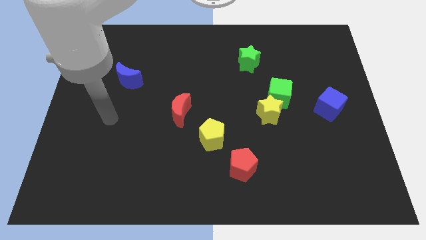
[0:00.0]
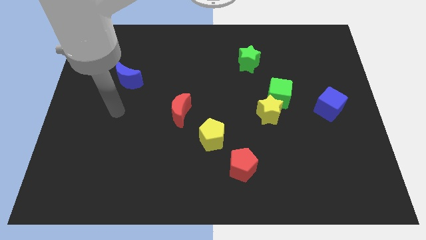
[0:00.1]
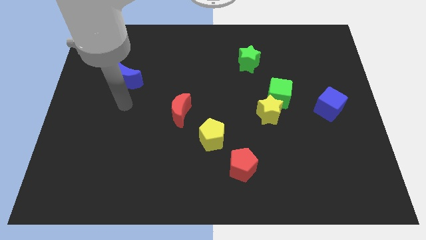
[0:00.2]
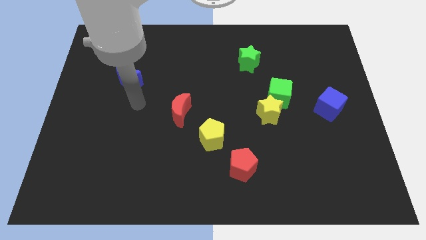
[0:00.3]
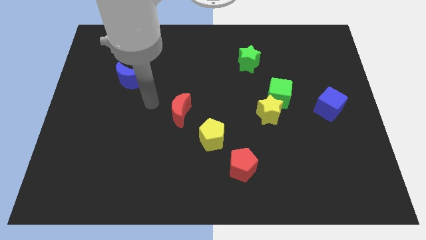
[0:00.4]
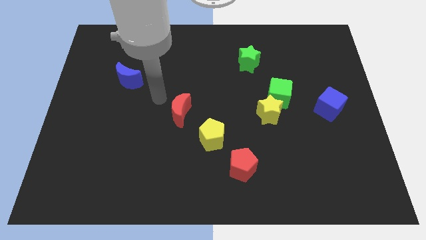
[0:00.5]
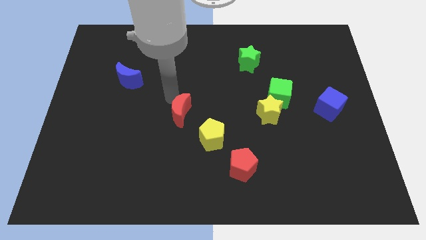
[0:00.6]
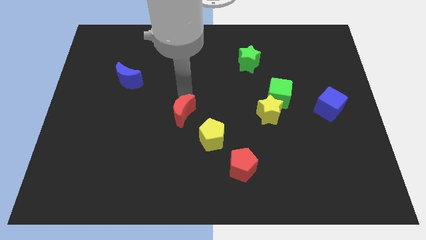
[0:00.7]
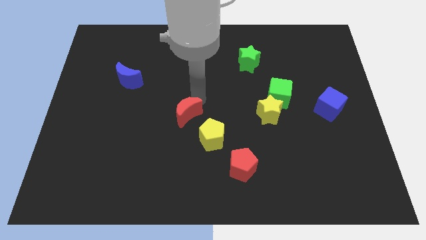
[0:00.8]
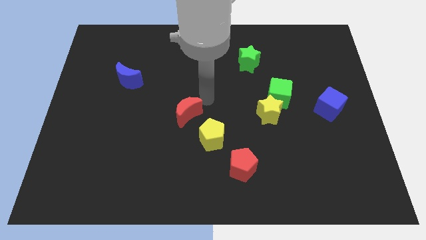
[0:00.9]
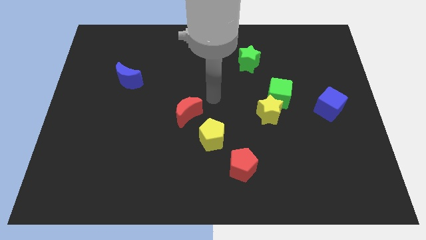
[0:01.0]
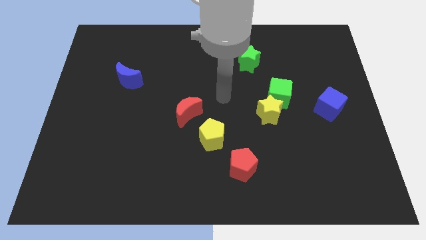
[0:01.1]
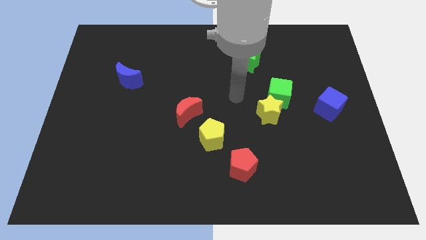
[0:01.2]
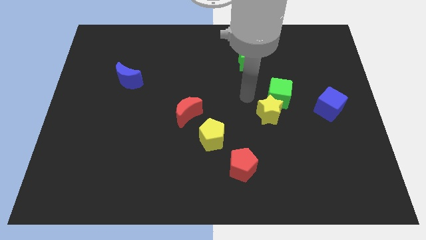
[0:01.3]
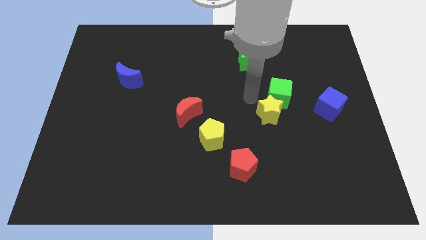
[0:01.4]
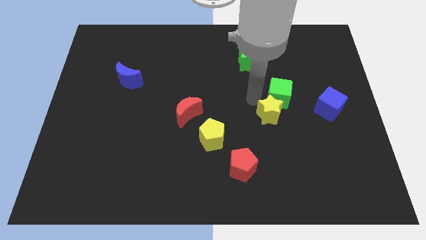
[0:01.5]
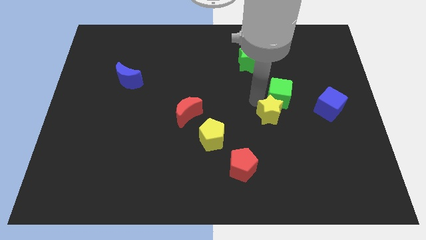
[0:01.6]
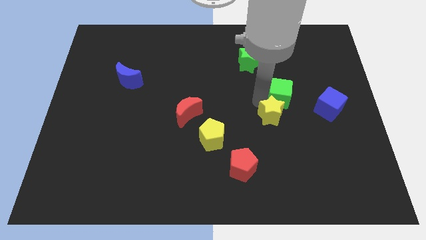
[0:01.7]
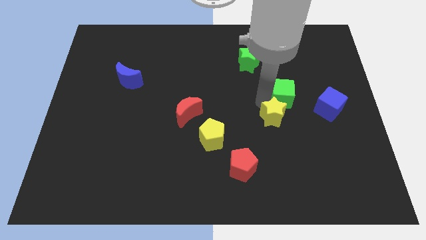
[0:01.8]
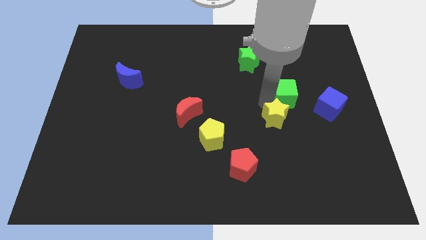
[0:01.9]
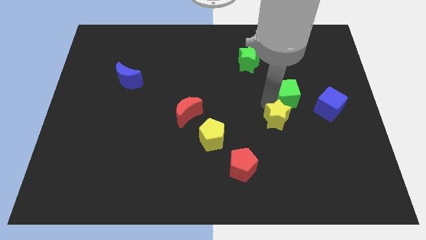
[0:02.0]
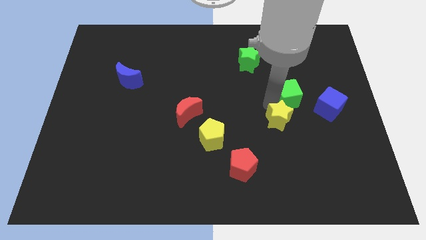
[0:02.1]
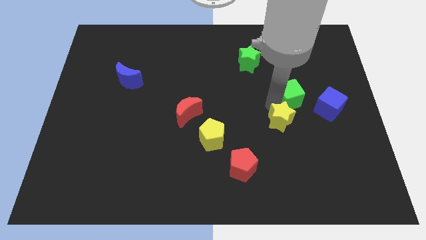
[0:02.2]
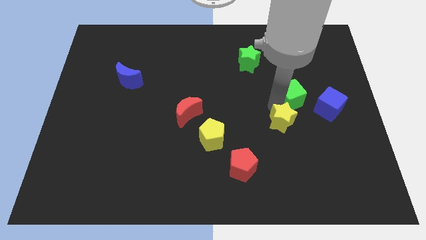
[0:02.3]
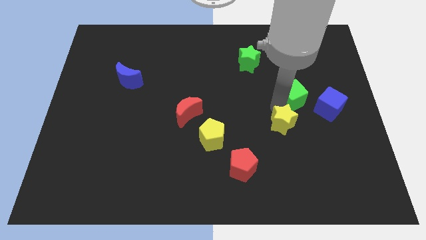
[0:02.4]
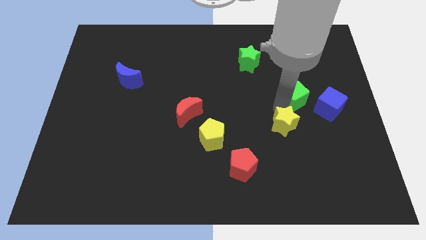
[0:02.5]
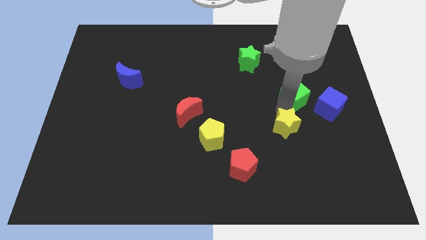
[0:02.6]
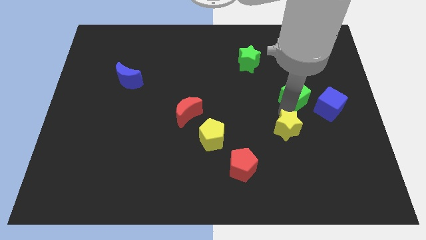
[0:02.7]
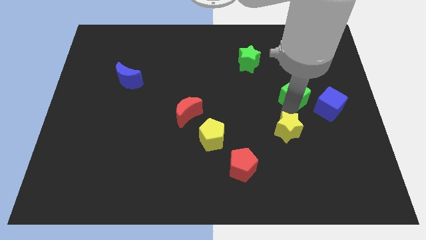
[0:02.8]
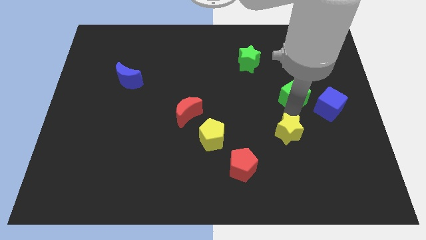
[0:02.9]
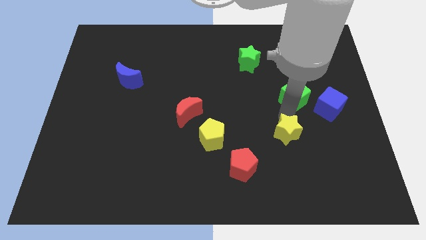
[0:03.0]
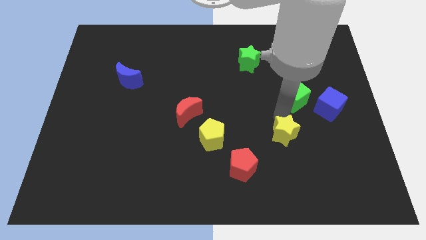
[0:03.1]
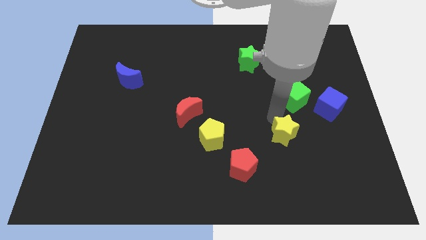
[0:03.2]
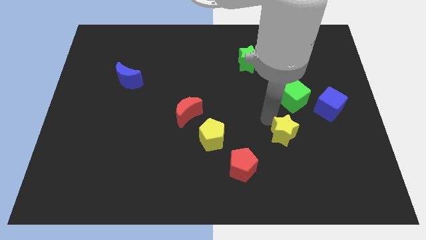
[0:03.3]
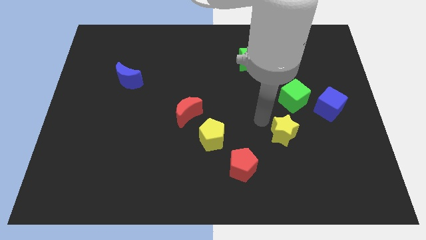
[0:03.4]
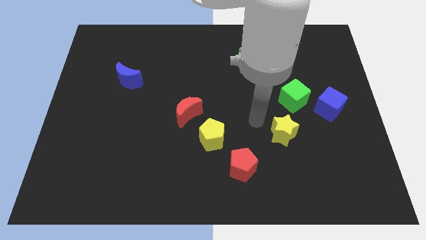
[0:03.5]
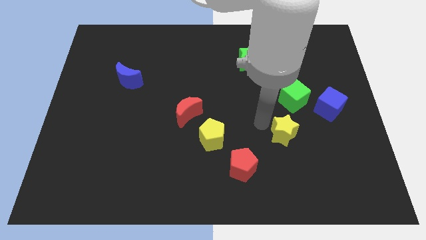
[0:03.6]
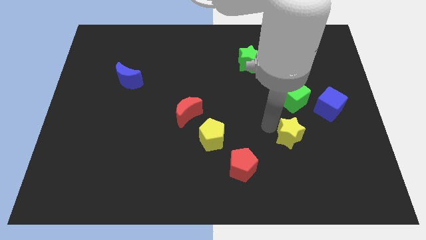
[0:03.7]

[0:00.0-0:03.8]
slightly move the yellow star downwards and to the right diagonally

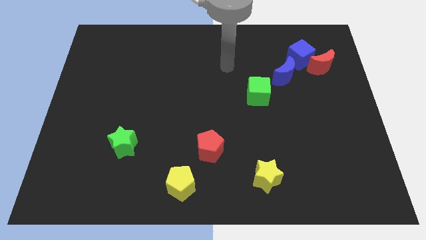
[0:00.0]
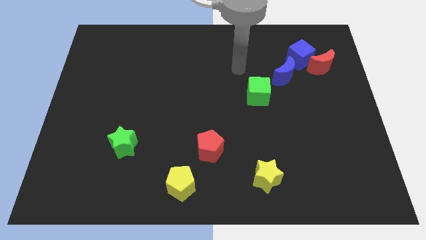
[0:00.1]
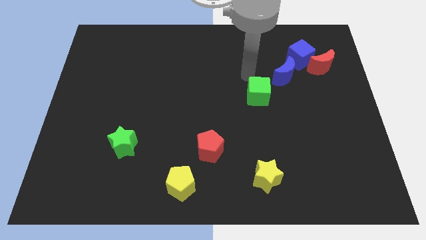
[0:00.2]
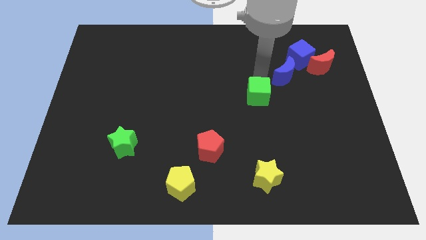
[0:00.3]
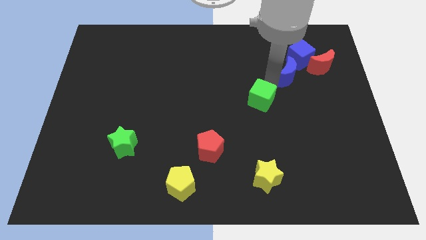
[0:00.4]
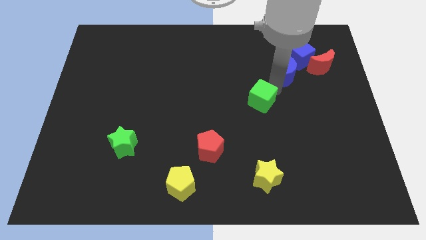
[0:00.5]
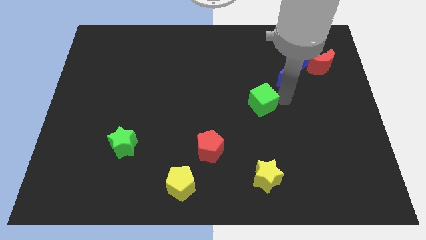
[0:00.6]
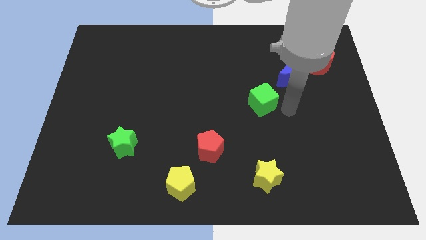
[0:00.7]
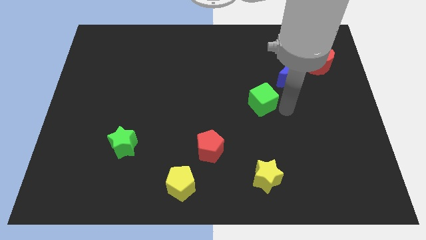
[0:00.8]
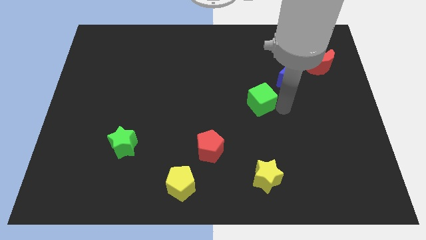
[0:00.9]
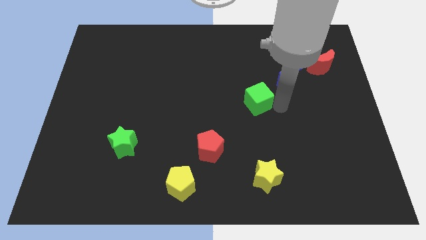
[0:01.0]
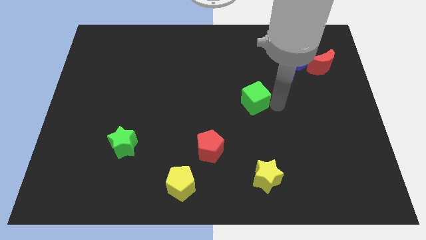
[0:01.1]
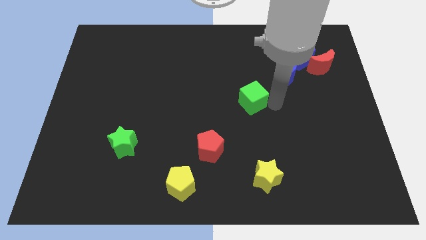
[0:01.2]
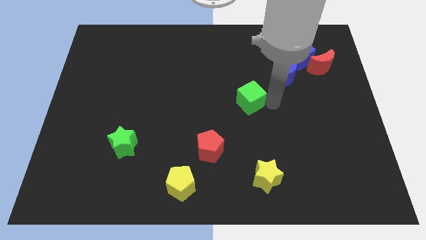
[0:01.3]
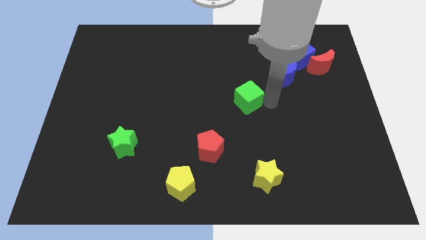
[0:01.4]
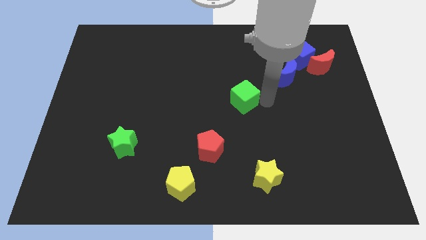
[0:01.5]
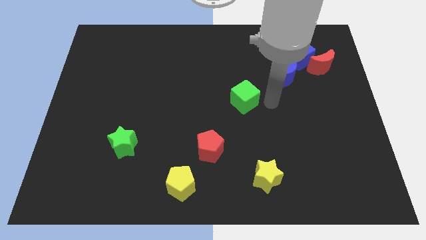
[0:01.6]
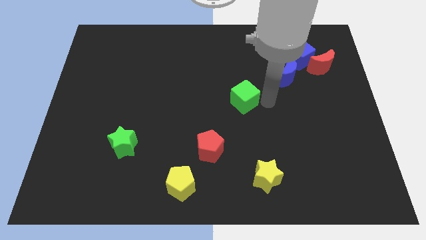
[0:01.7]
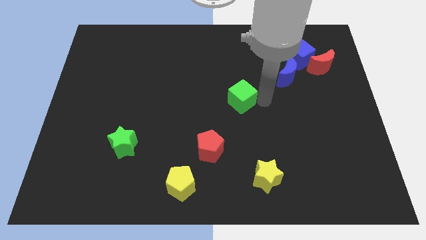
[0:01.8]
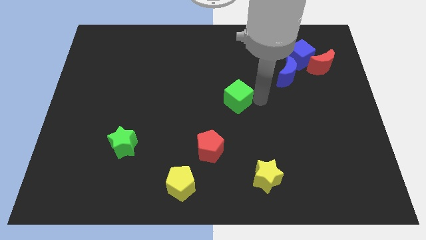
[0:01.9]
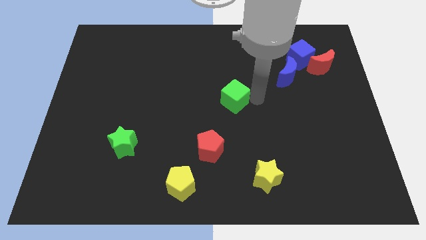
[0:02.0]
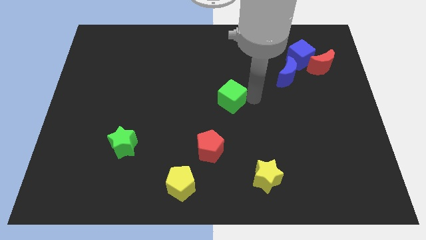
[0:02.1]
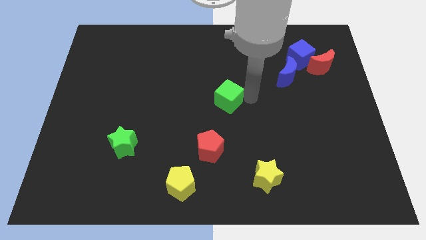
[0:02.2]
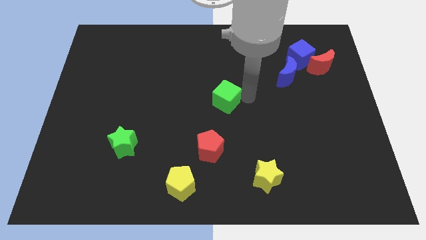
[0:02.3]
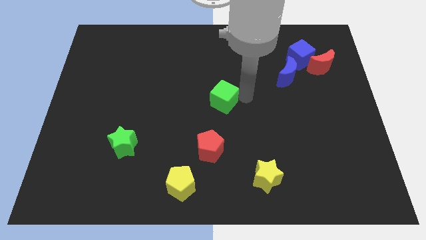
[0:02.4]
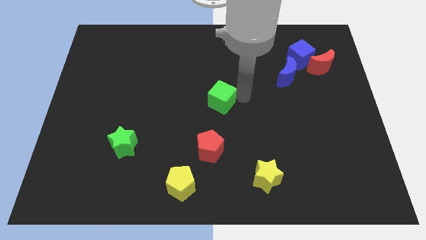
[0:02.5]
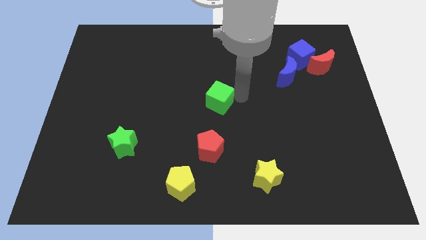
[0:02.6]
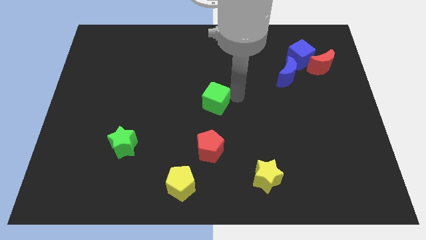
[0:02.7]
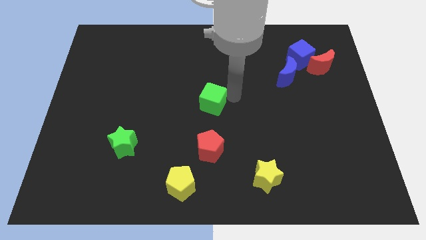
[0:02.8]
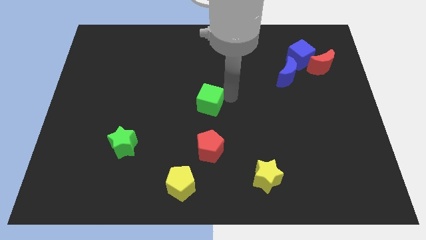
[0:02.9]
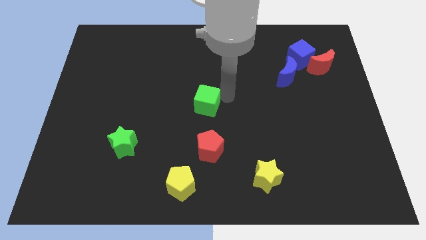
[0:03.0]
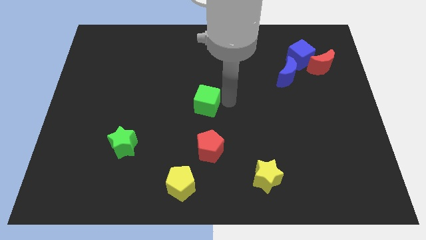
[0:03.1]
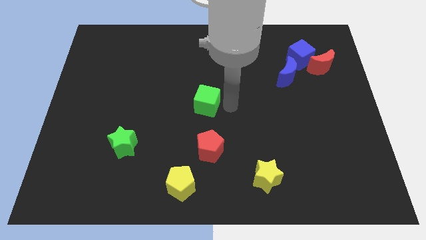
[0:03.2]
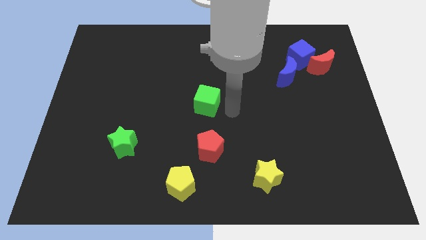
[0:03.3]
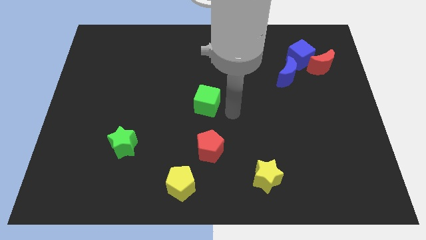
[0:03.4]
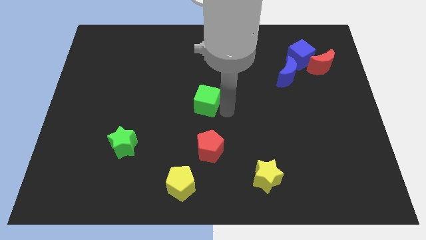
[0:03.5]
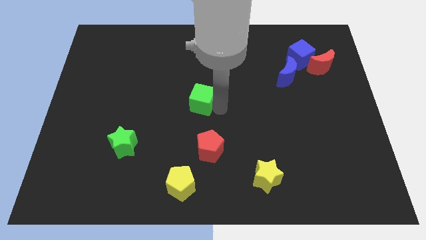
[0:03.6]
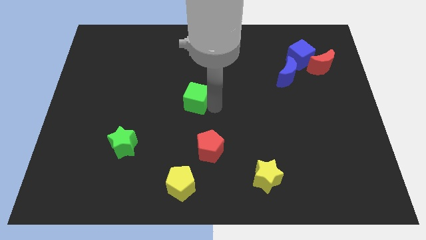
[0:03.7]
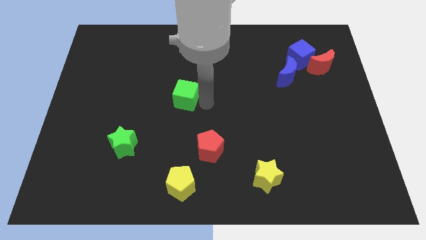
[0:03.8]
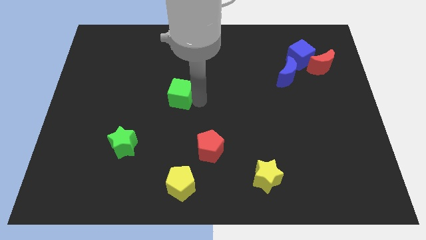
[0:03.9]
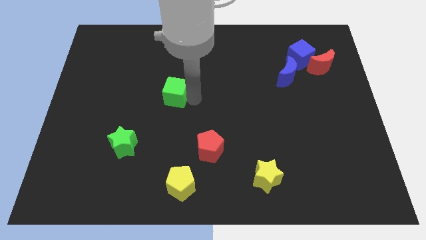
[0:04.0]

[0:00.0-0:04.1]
move the green cube left

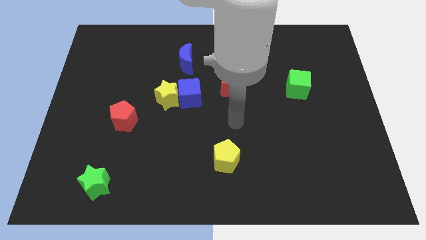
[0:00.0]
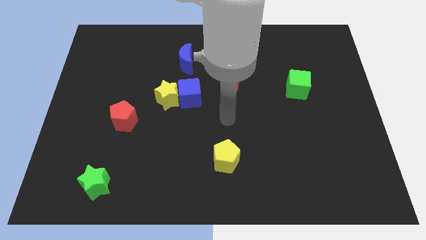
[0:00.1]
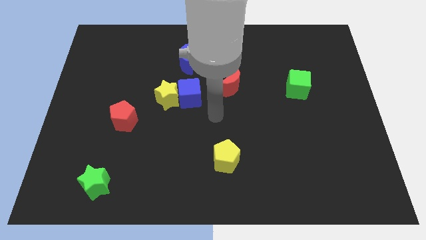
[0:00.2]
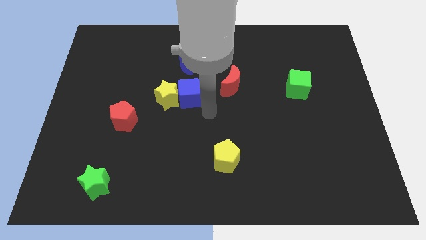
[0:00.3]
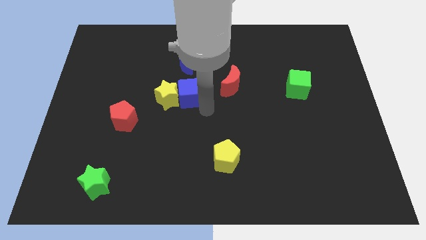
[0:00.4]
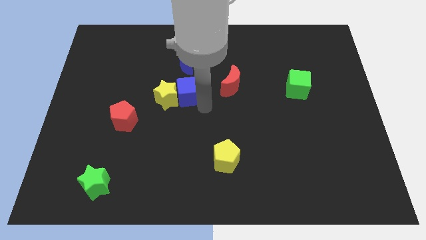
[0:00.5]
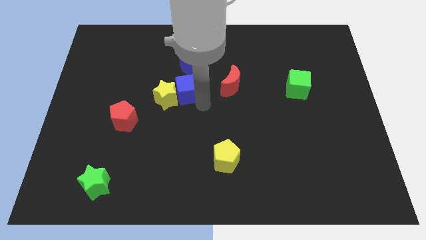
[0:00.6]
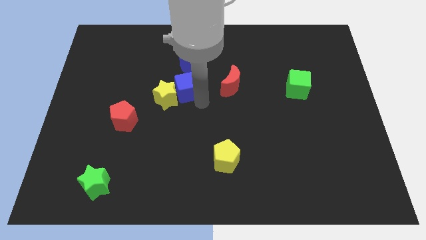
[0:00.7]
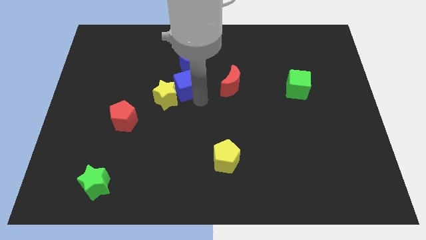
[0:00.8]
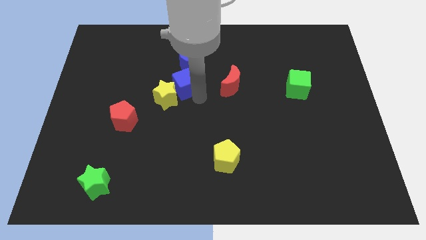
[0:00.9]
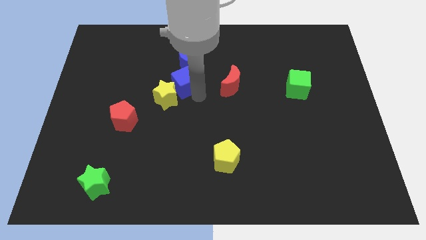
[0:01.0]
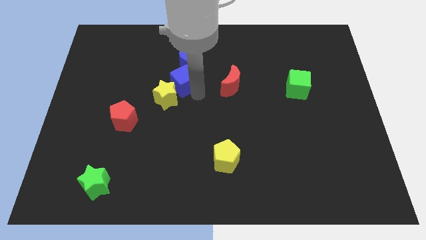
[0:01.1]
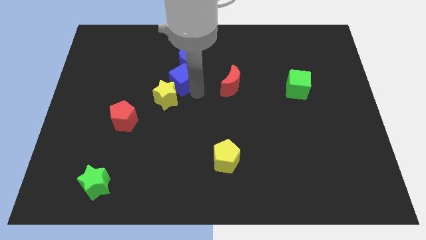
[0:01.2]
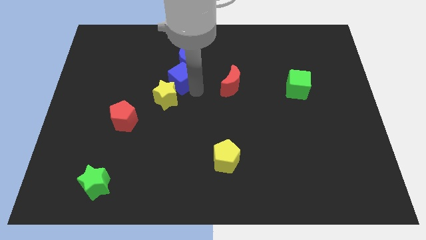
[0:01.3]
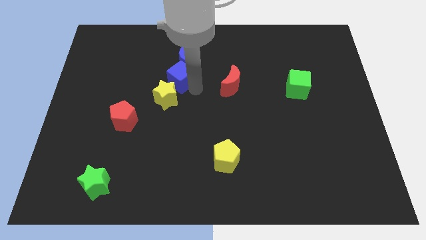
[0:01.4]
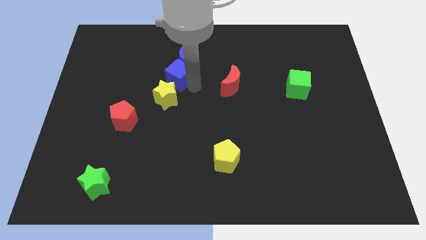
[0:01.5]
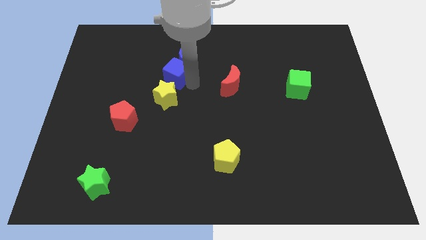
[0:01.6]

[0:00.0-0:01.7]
push the blue cube diagonally up and to the left a little
